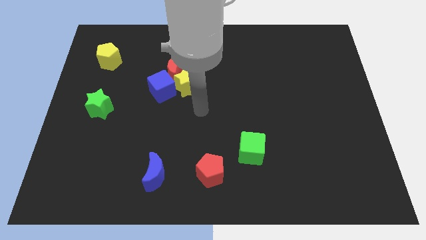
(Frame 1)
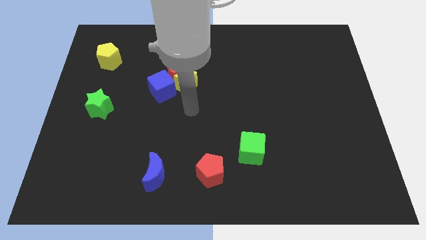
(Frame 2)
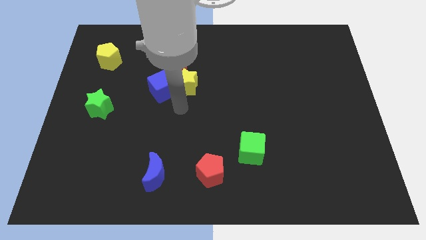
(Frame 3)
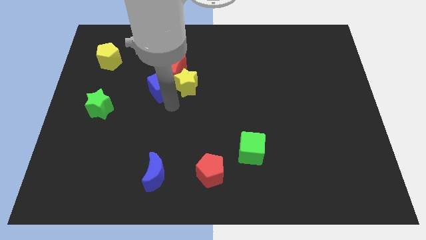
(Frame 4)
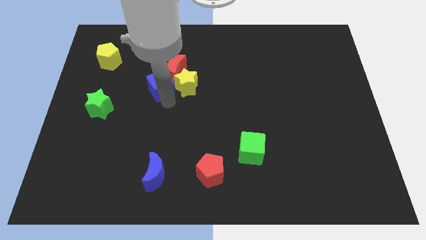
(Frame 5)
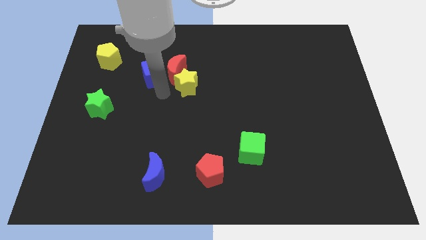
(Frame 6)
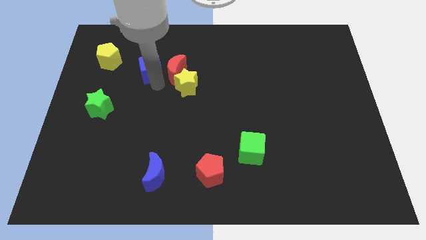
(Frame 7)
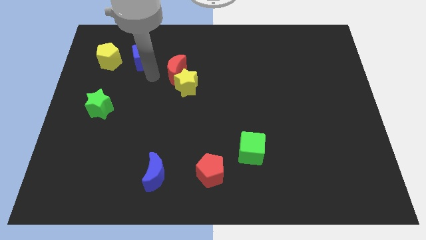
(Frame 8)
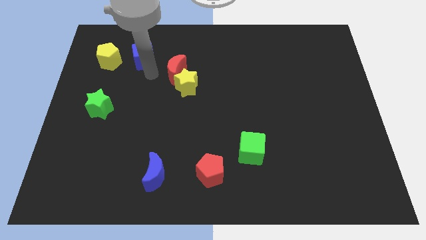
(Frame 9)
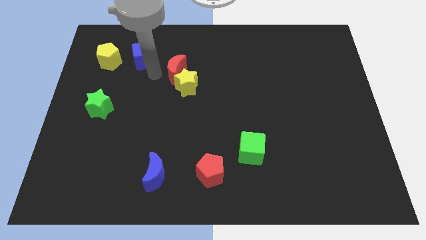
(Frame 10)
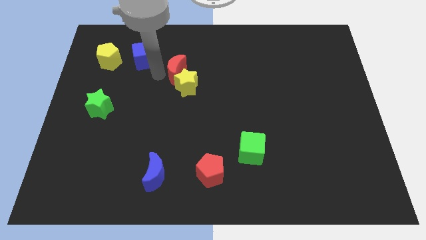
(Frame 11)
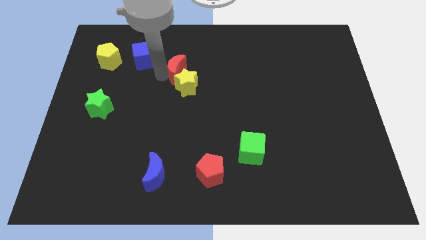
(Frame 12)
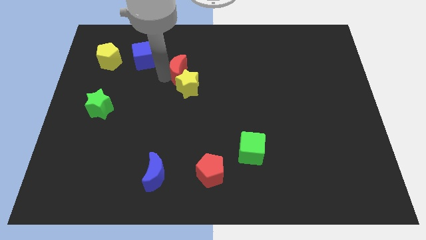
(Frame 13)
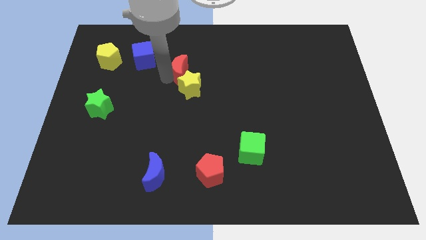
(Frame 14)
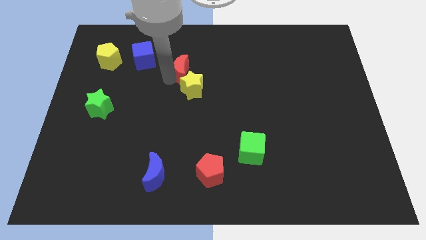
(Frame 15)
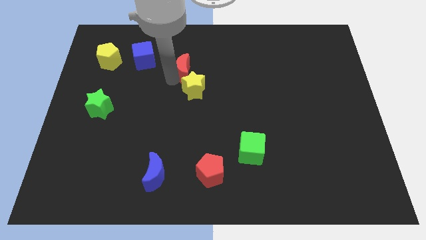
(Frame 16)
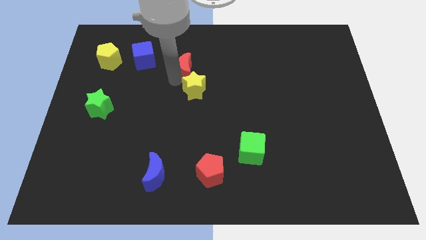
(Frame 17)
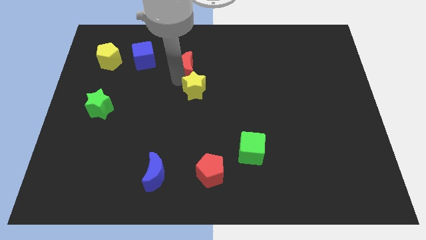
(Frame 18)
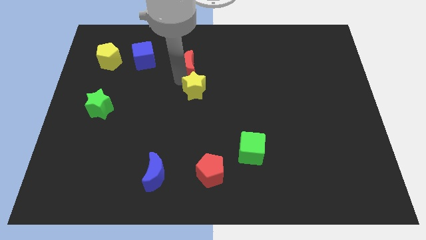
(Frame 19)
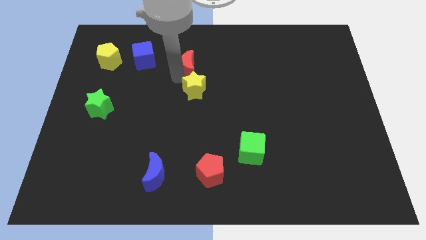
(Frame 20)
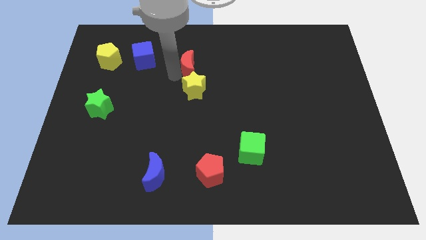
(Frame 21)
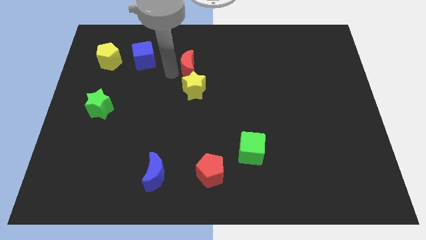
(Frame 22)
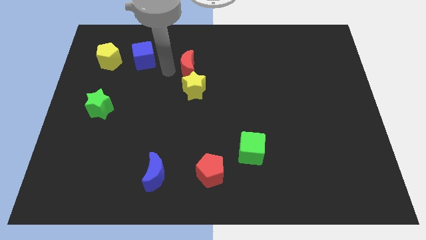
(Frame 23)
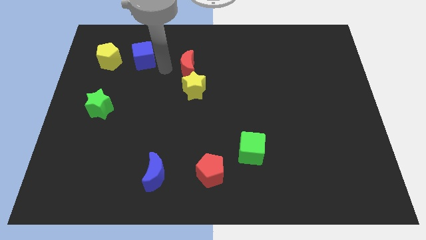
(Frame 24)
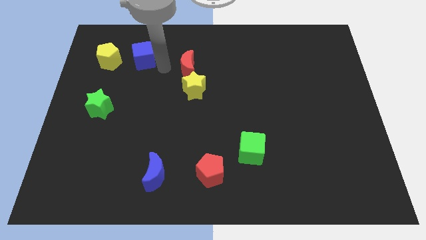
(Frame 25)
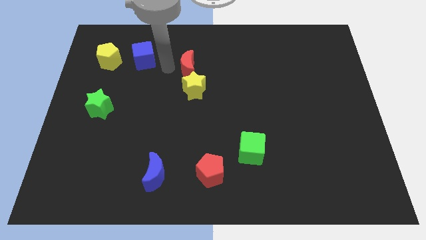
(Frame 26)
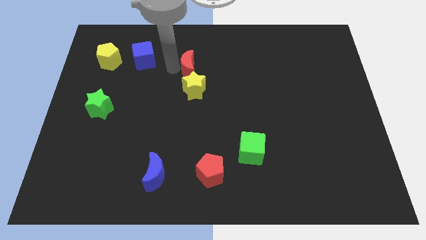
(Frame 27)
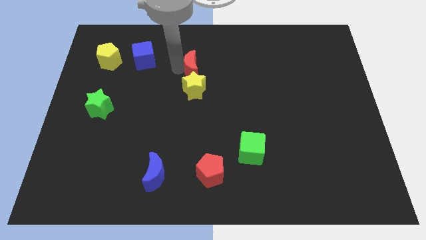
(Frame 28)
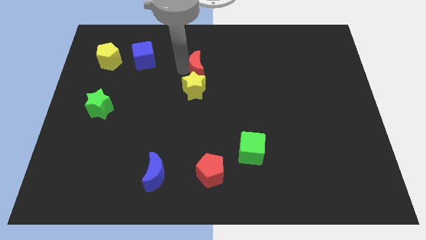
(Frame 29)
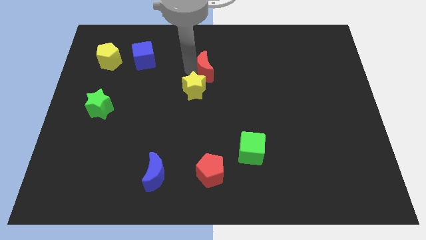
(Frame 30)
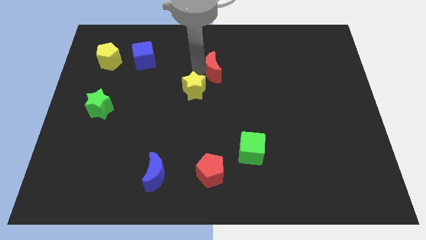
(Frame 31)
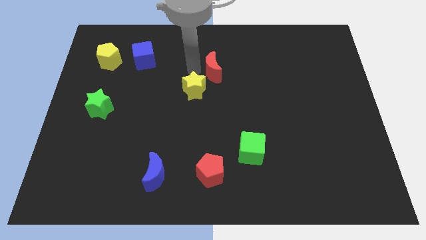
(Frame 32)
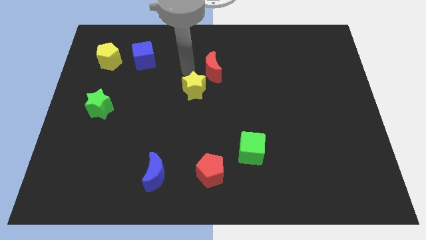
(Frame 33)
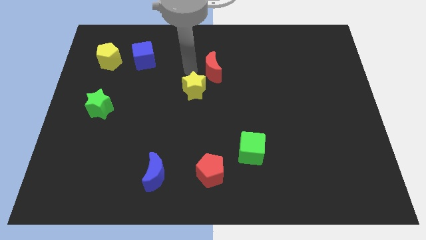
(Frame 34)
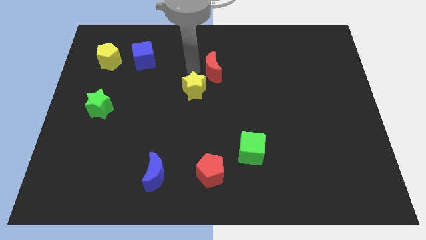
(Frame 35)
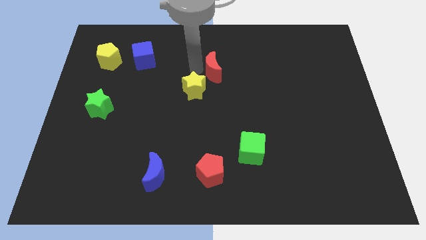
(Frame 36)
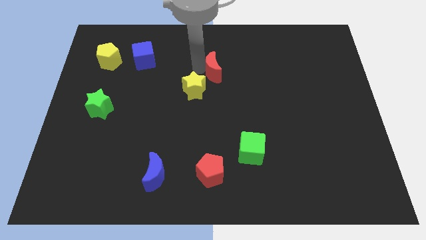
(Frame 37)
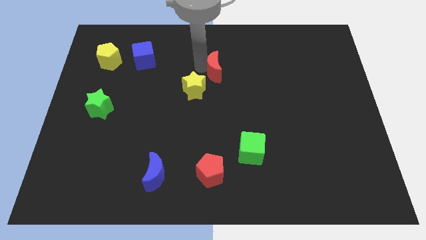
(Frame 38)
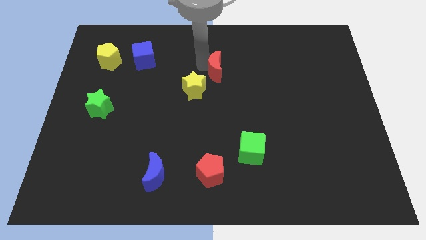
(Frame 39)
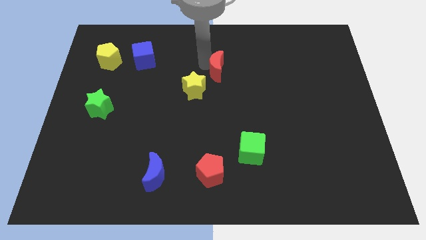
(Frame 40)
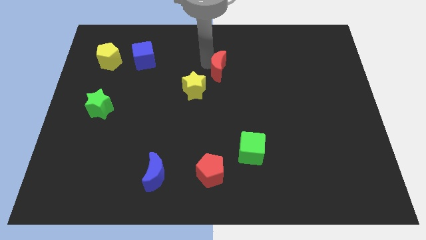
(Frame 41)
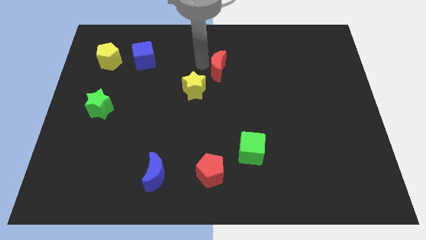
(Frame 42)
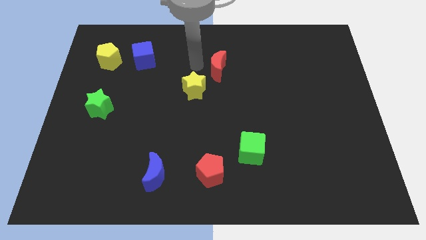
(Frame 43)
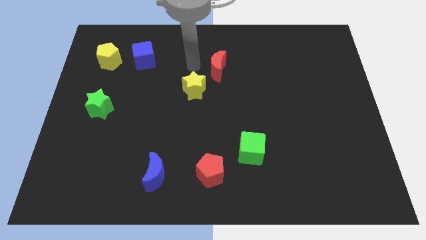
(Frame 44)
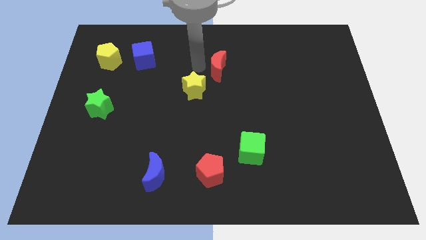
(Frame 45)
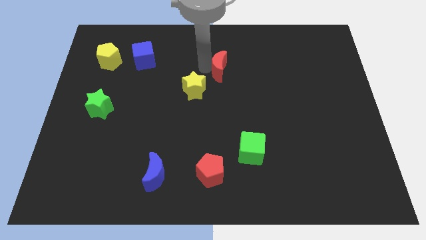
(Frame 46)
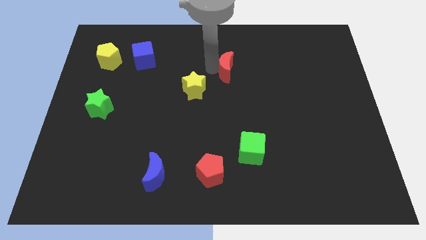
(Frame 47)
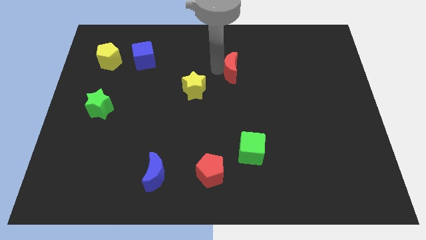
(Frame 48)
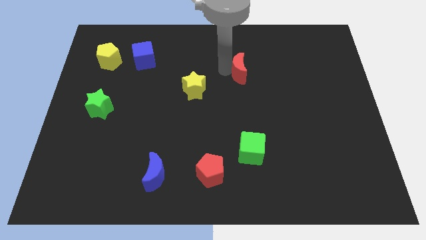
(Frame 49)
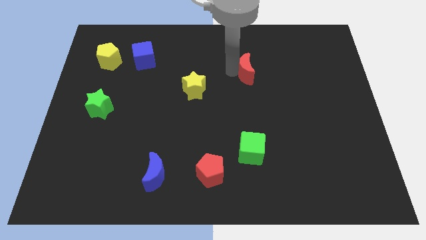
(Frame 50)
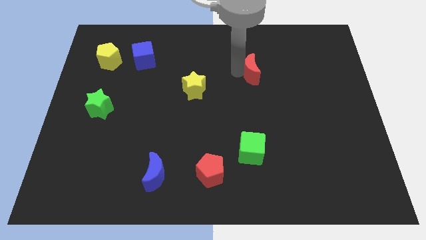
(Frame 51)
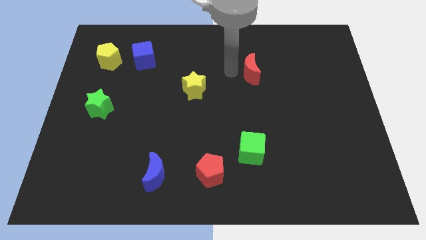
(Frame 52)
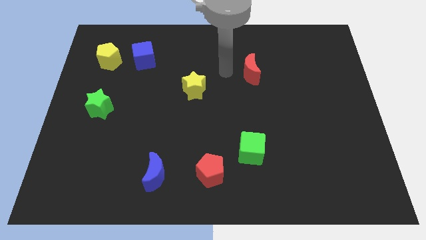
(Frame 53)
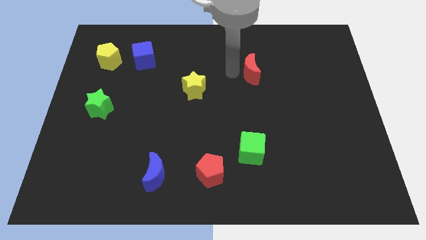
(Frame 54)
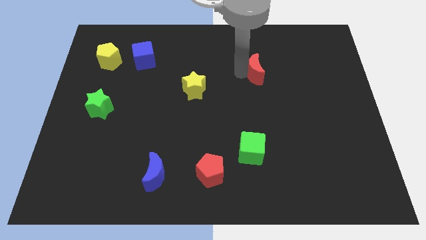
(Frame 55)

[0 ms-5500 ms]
slide the red moon right

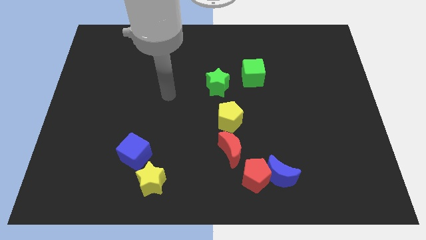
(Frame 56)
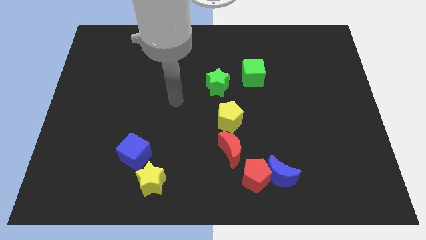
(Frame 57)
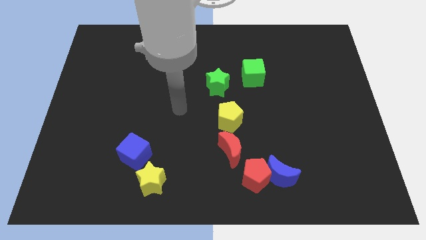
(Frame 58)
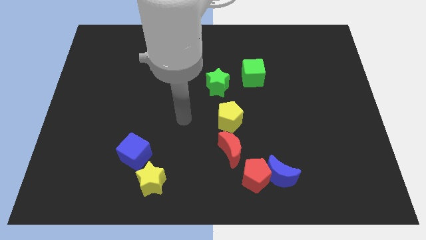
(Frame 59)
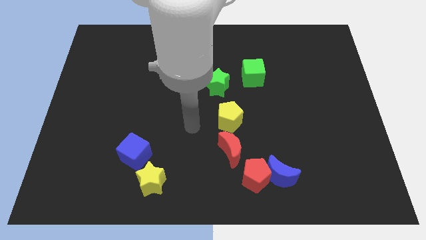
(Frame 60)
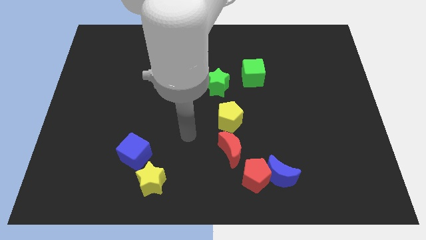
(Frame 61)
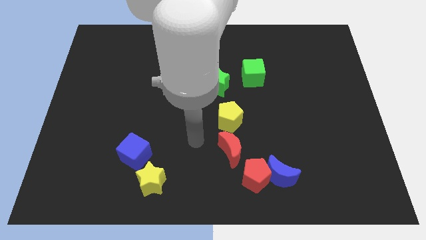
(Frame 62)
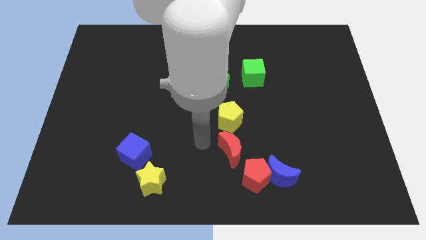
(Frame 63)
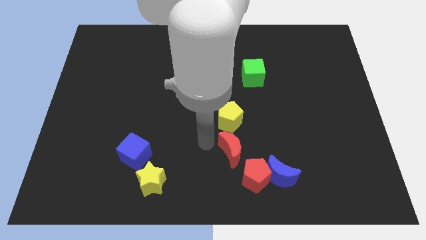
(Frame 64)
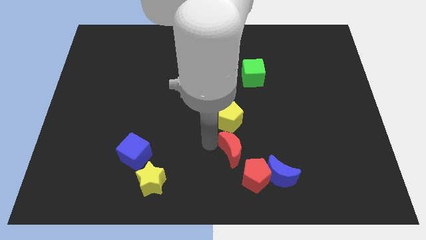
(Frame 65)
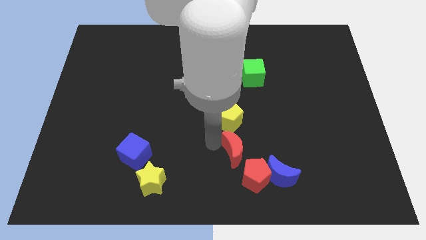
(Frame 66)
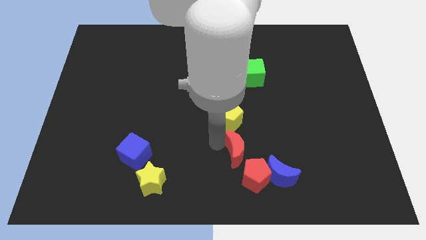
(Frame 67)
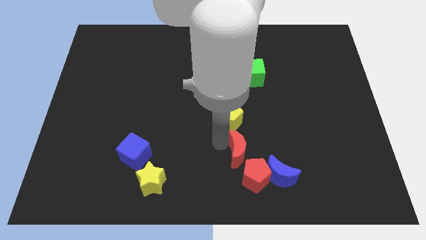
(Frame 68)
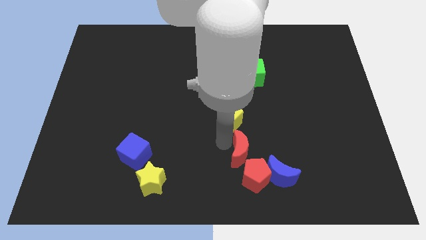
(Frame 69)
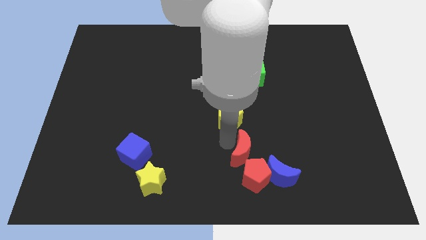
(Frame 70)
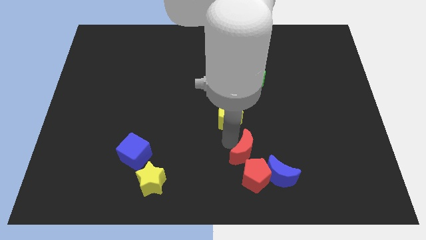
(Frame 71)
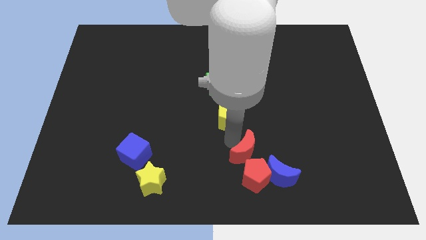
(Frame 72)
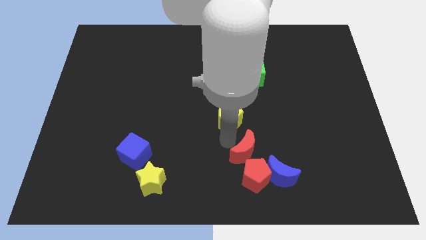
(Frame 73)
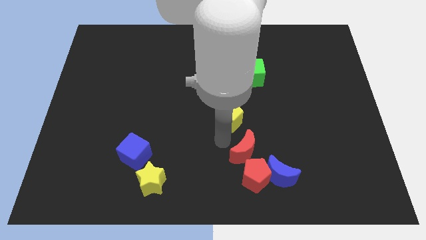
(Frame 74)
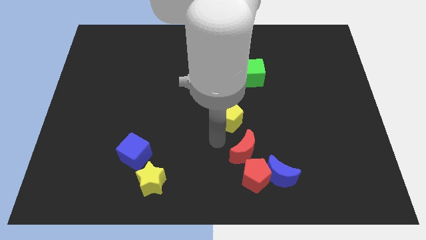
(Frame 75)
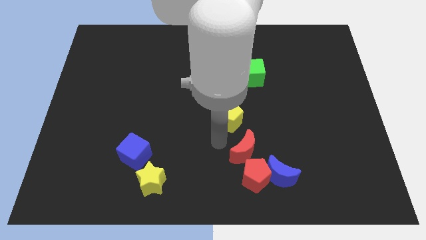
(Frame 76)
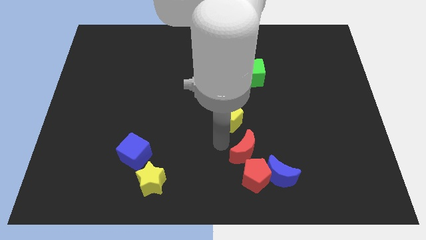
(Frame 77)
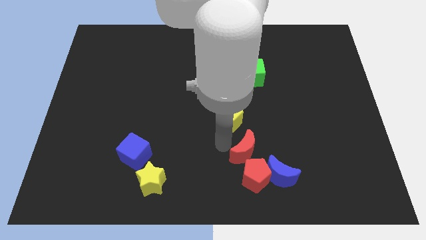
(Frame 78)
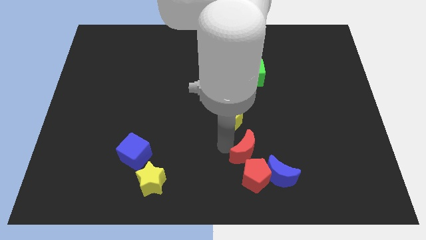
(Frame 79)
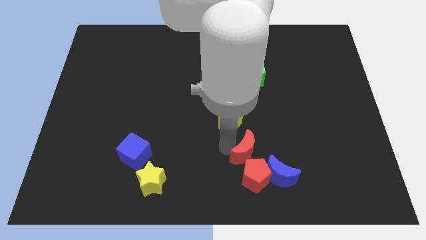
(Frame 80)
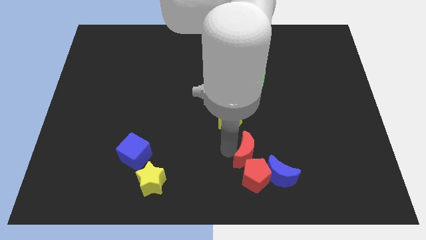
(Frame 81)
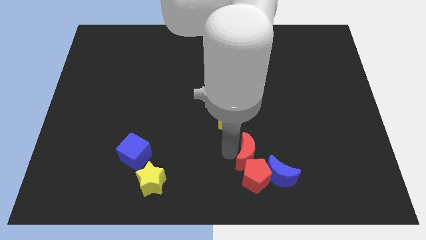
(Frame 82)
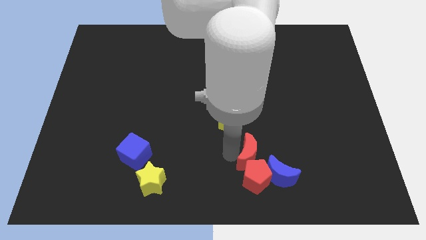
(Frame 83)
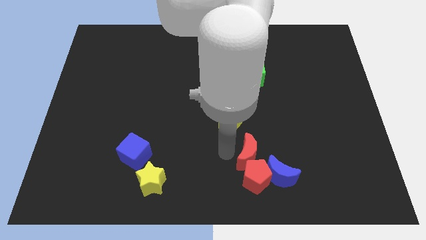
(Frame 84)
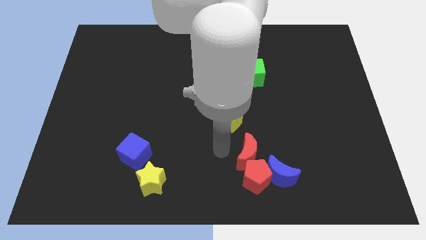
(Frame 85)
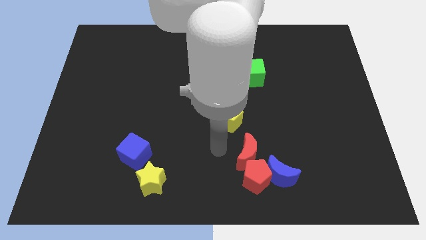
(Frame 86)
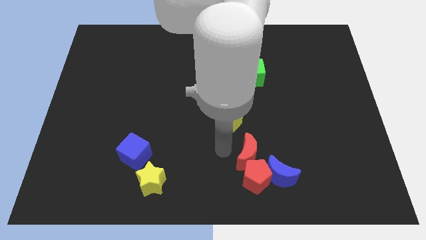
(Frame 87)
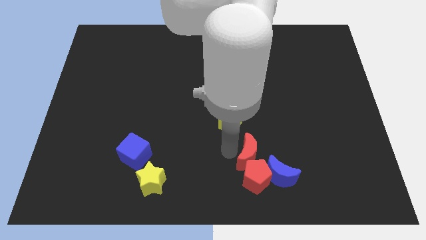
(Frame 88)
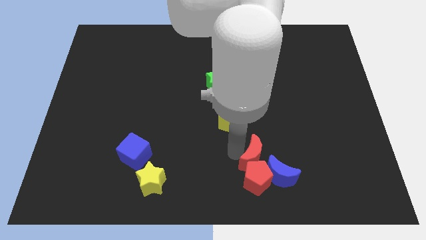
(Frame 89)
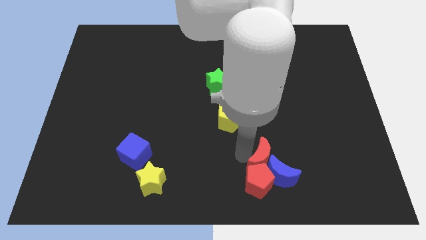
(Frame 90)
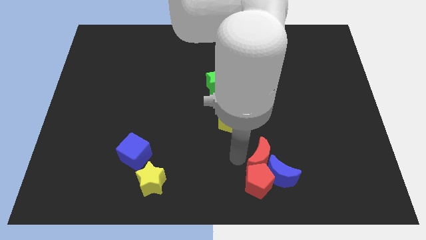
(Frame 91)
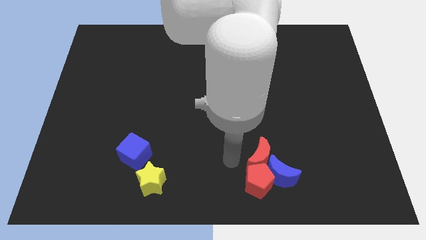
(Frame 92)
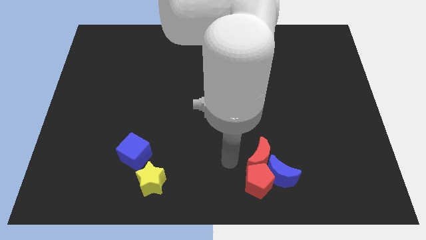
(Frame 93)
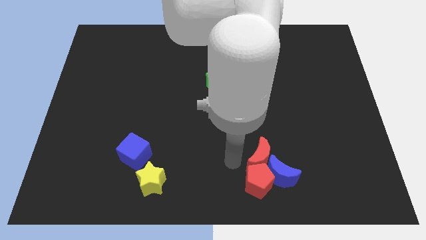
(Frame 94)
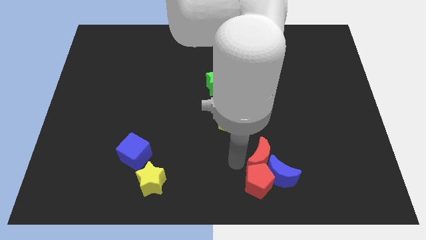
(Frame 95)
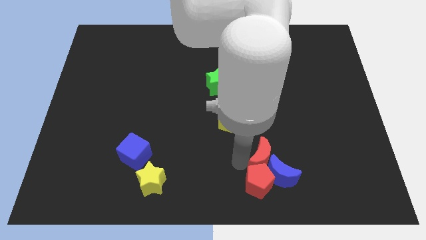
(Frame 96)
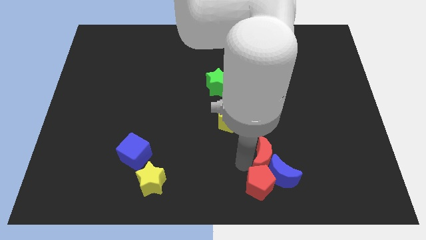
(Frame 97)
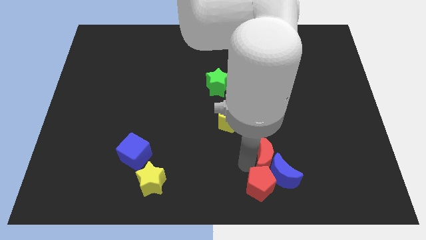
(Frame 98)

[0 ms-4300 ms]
move the red moon slightly to the right
